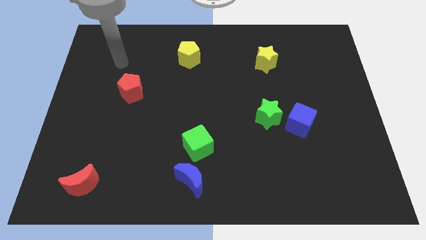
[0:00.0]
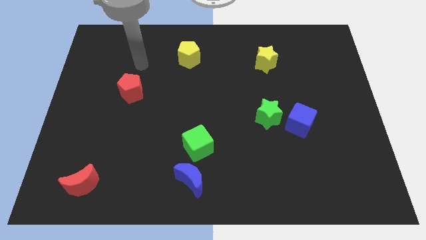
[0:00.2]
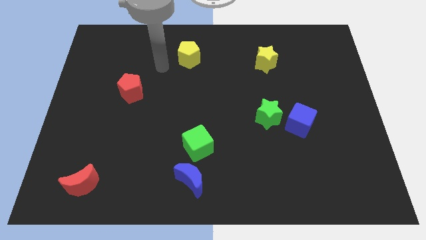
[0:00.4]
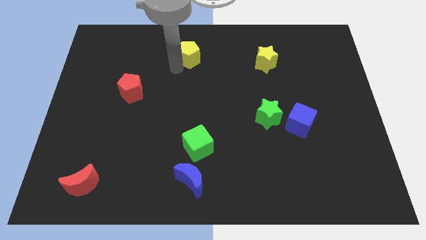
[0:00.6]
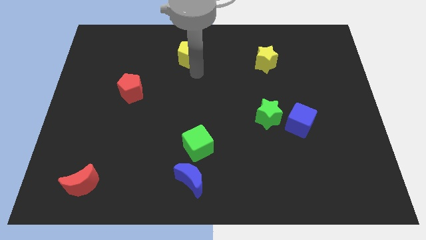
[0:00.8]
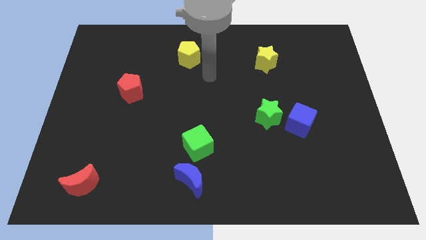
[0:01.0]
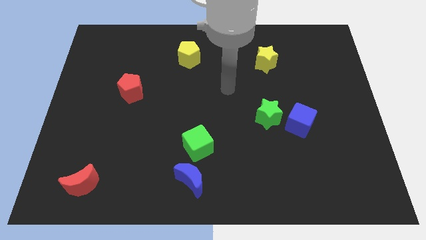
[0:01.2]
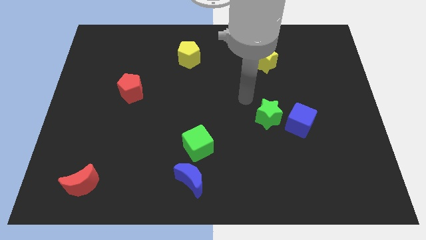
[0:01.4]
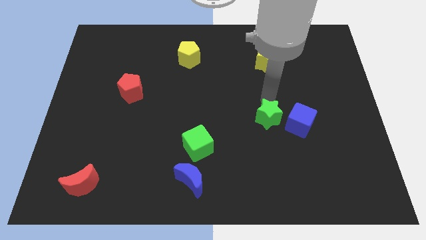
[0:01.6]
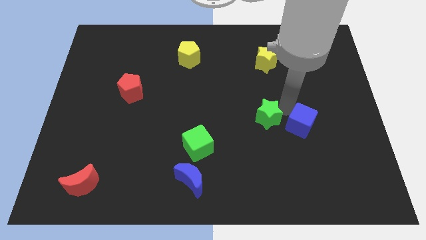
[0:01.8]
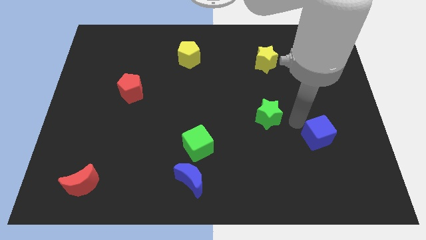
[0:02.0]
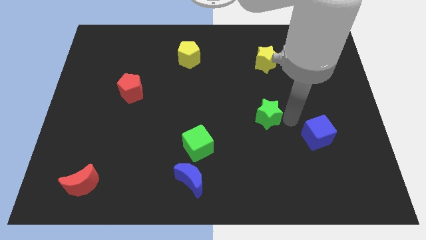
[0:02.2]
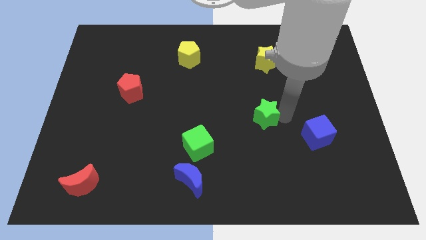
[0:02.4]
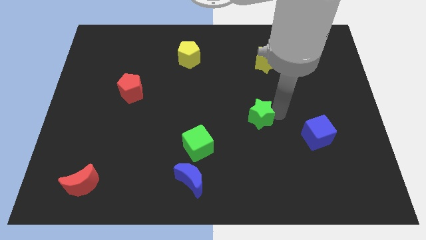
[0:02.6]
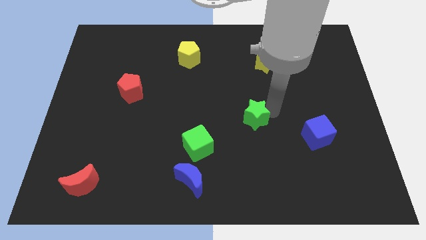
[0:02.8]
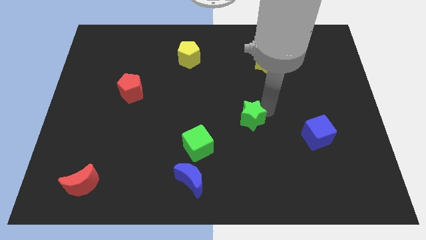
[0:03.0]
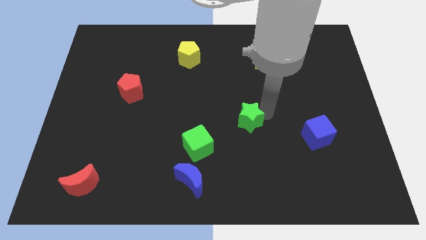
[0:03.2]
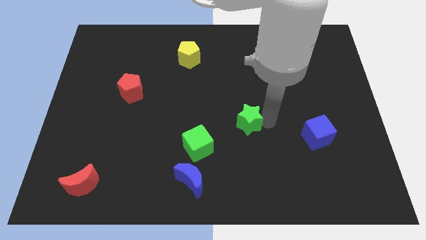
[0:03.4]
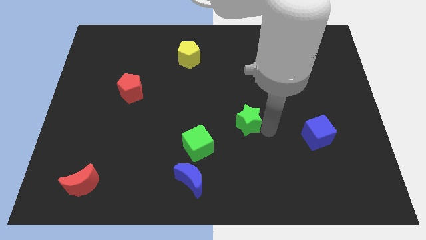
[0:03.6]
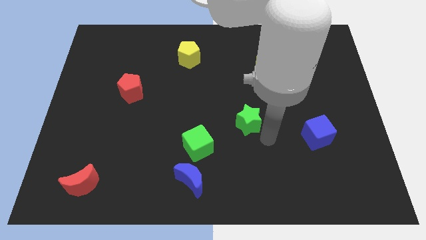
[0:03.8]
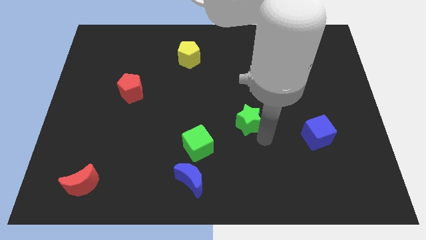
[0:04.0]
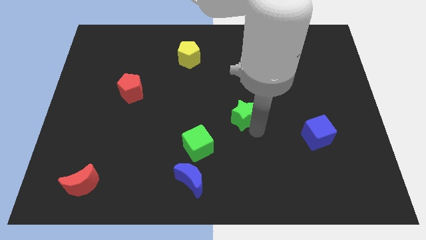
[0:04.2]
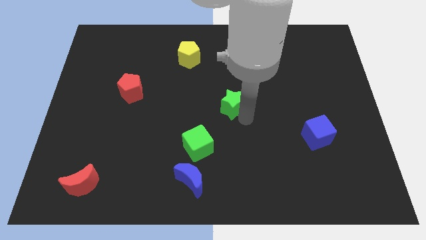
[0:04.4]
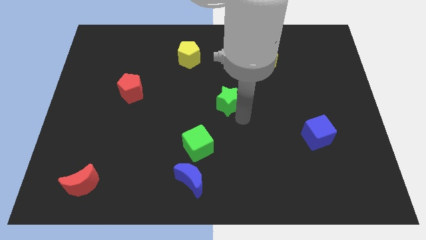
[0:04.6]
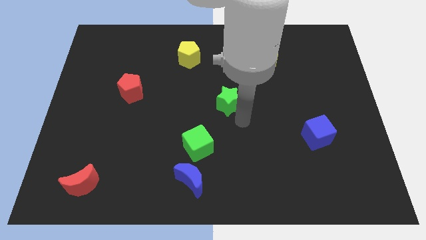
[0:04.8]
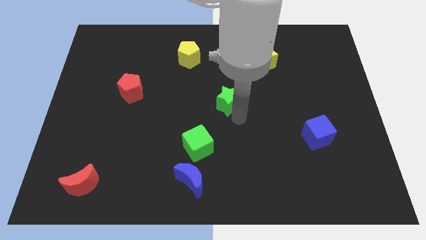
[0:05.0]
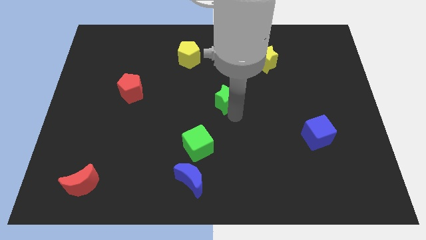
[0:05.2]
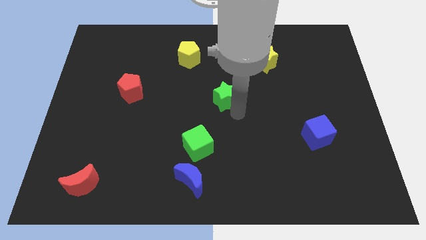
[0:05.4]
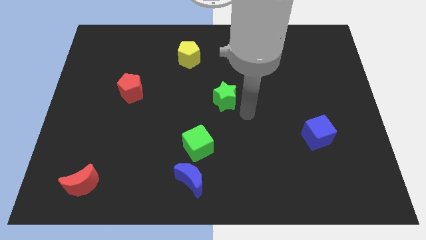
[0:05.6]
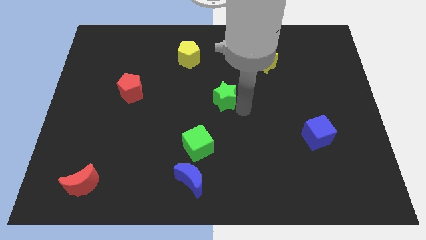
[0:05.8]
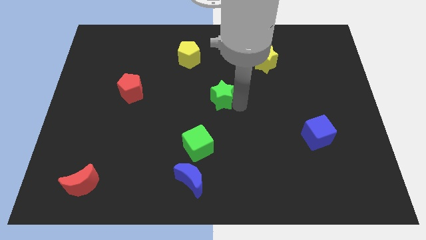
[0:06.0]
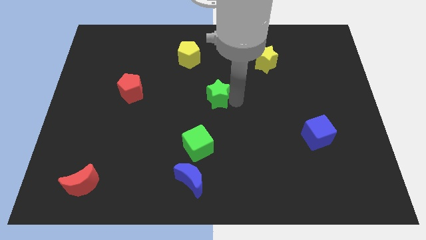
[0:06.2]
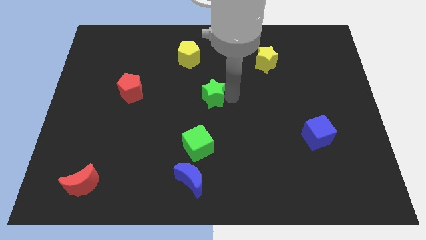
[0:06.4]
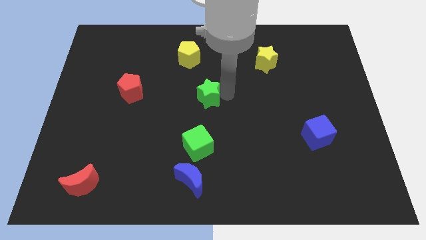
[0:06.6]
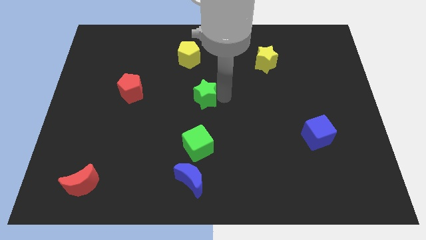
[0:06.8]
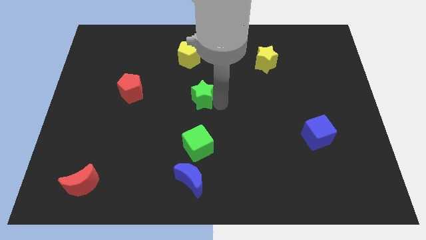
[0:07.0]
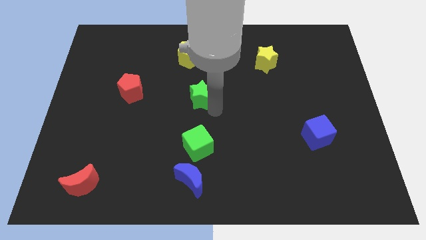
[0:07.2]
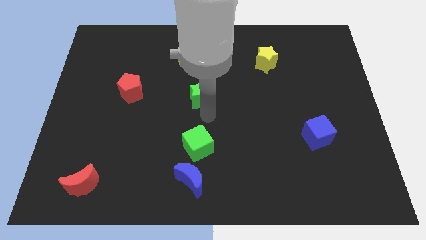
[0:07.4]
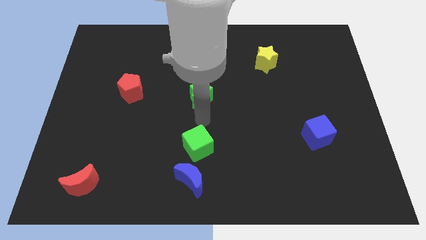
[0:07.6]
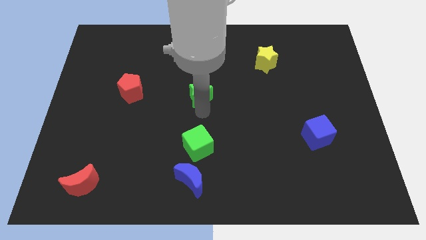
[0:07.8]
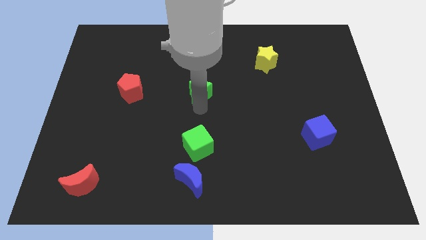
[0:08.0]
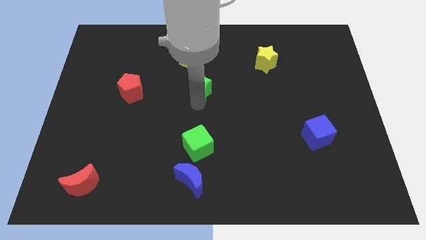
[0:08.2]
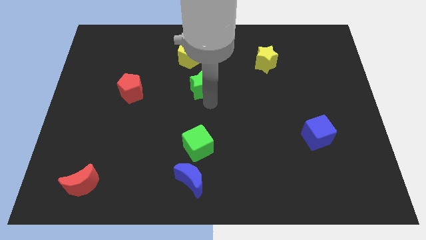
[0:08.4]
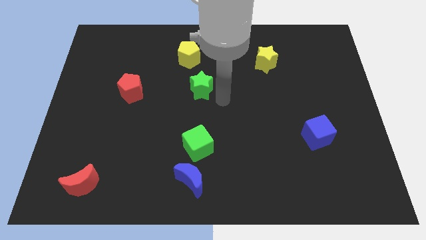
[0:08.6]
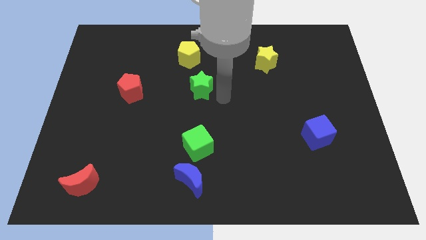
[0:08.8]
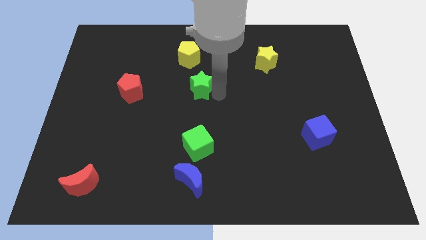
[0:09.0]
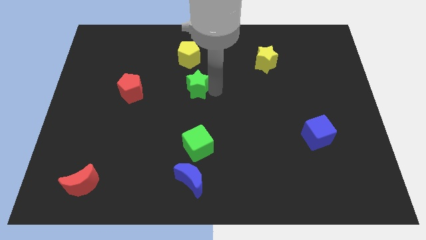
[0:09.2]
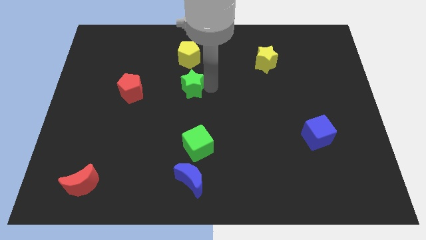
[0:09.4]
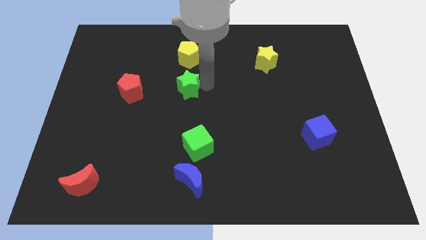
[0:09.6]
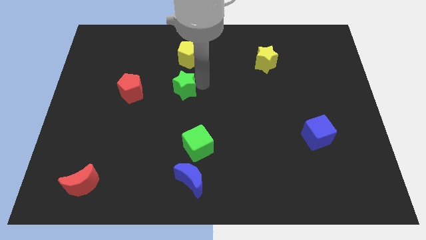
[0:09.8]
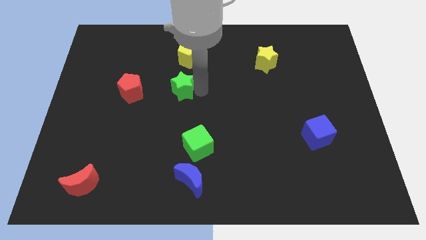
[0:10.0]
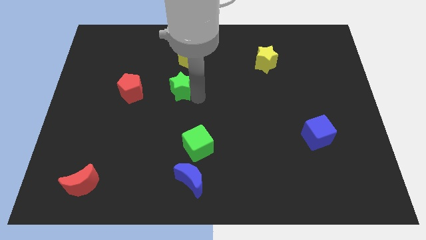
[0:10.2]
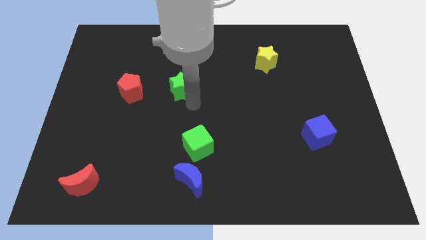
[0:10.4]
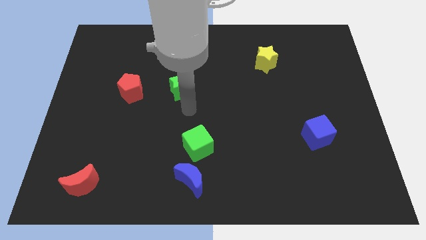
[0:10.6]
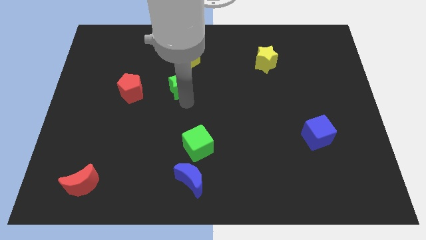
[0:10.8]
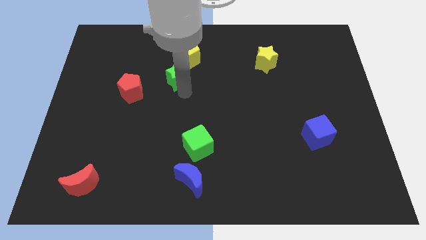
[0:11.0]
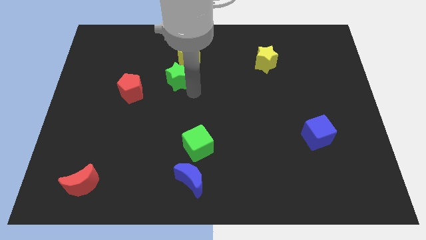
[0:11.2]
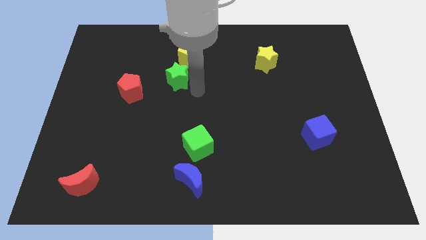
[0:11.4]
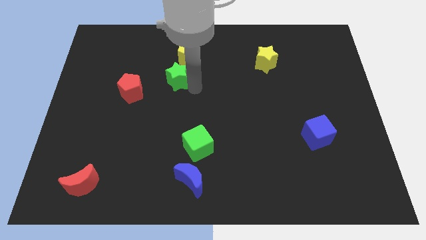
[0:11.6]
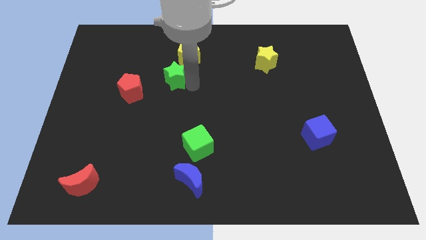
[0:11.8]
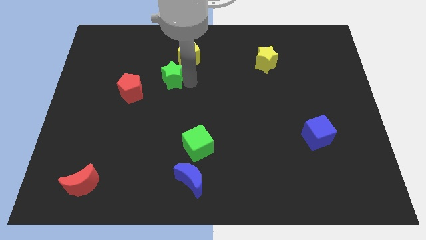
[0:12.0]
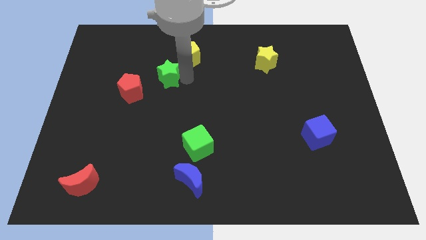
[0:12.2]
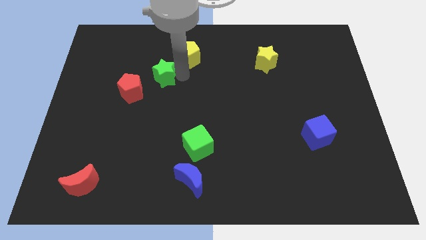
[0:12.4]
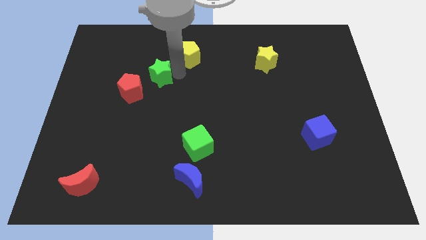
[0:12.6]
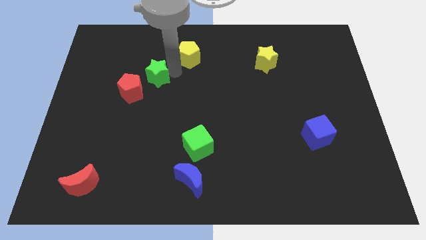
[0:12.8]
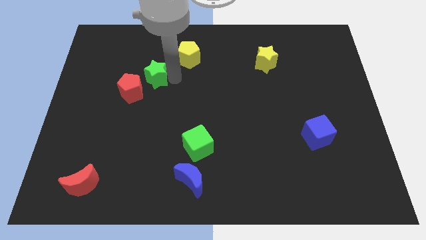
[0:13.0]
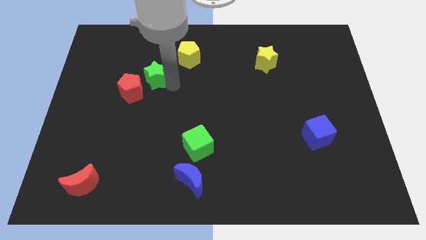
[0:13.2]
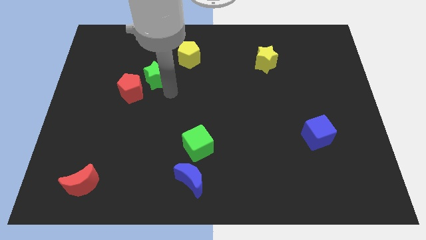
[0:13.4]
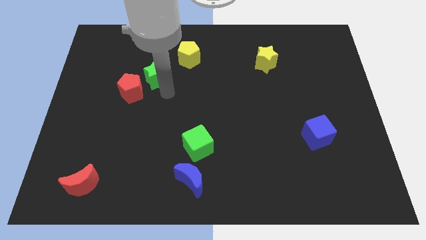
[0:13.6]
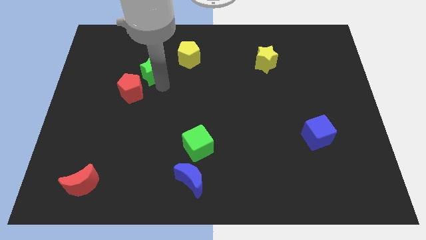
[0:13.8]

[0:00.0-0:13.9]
push the green star above the red pentagon
